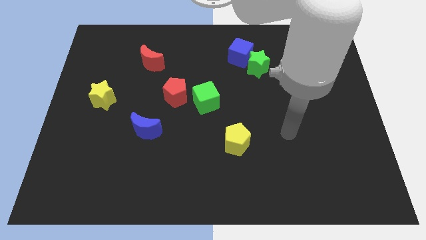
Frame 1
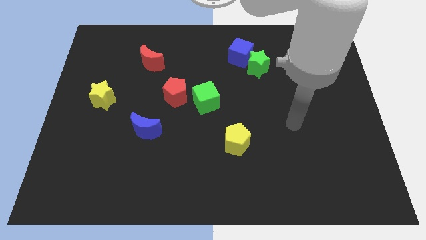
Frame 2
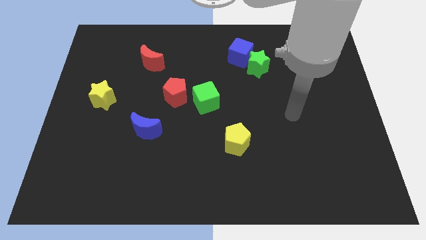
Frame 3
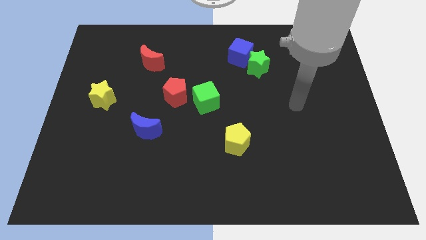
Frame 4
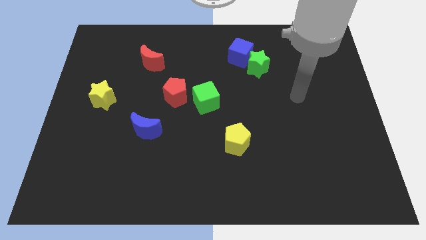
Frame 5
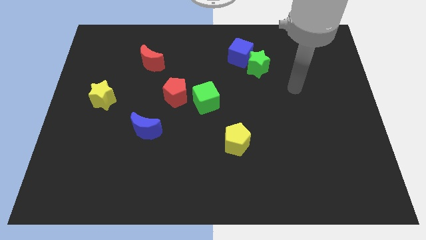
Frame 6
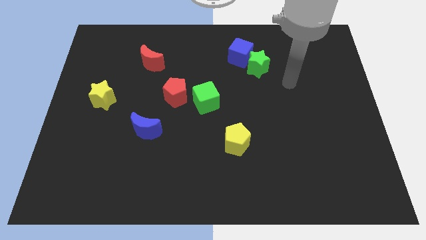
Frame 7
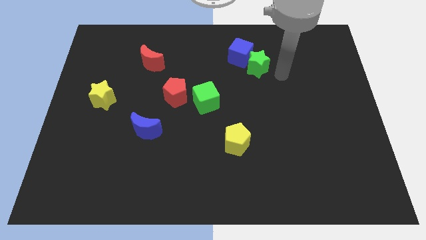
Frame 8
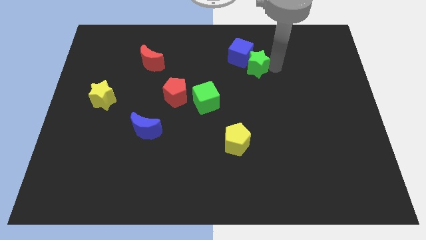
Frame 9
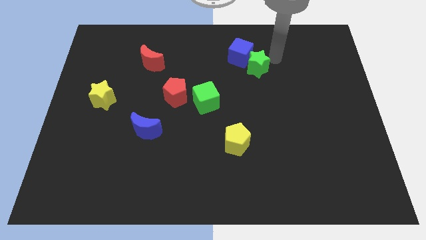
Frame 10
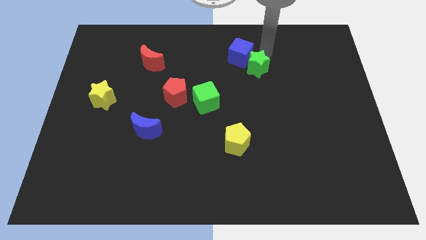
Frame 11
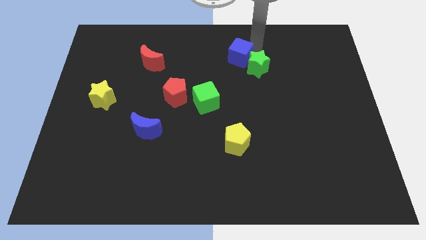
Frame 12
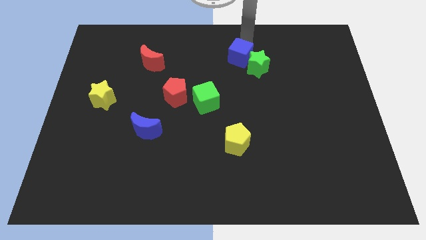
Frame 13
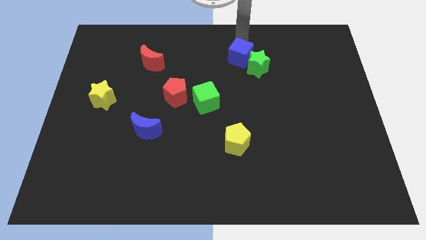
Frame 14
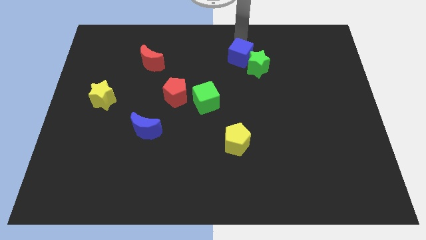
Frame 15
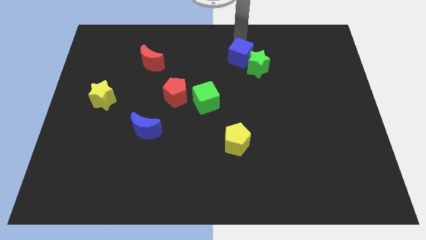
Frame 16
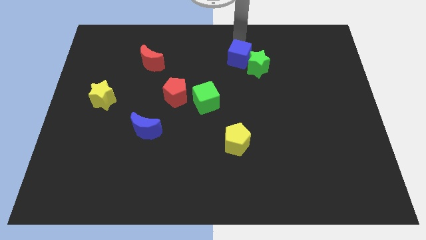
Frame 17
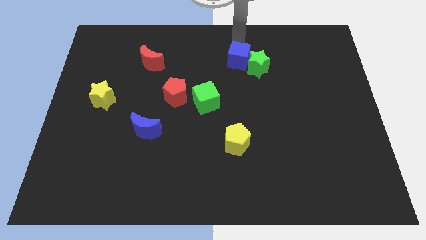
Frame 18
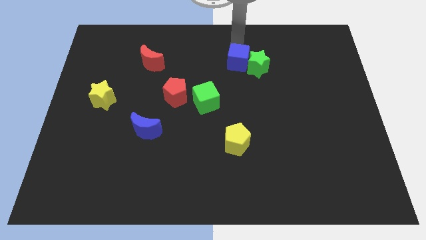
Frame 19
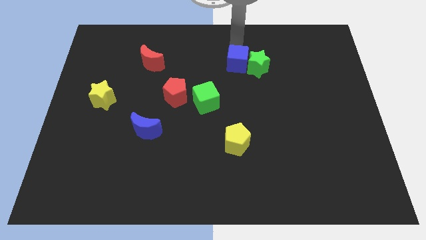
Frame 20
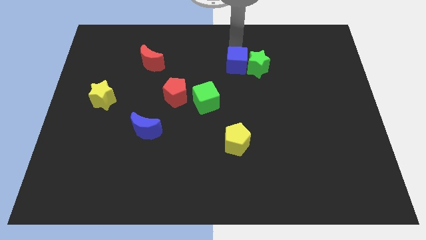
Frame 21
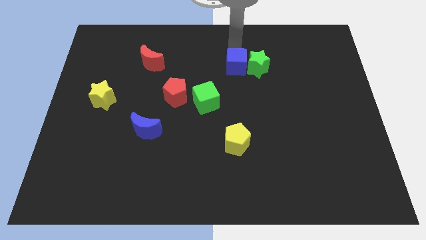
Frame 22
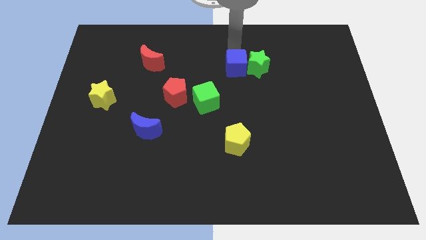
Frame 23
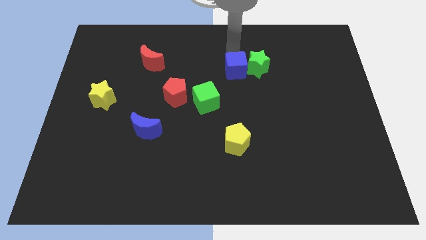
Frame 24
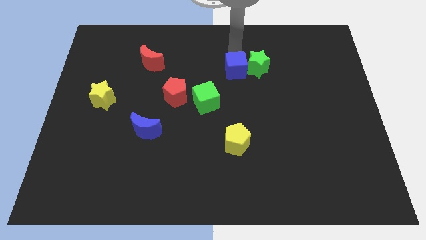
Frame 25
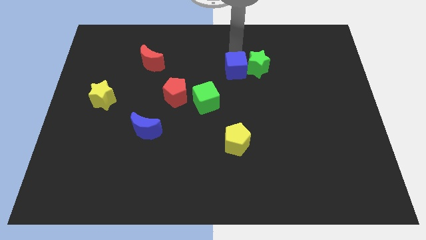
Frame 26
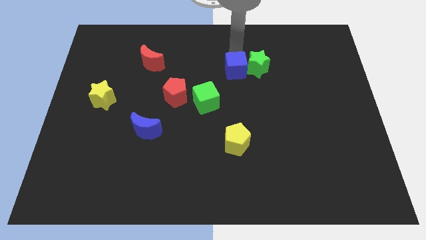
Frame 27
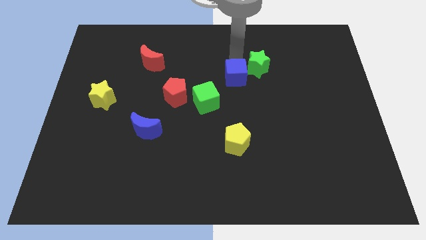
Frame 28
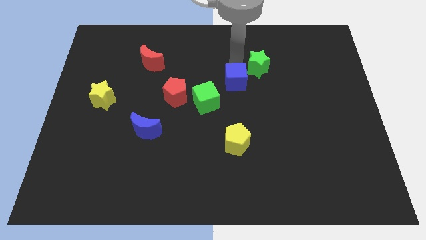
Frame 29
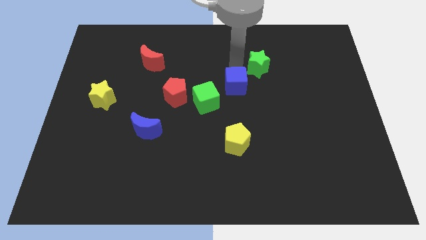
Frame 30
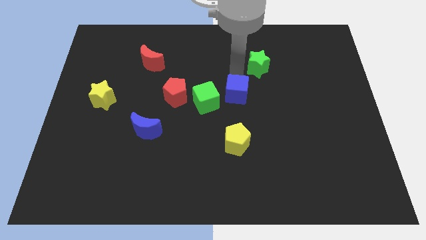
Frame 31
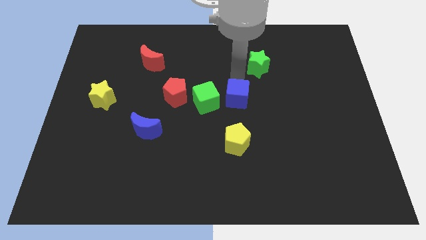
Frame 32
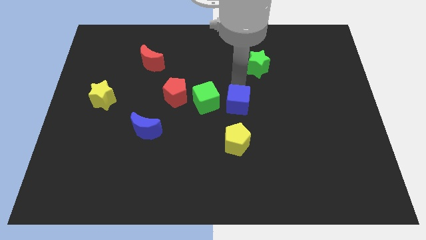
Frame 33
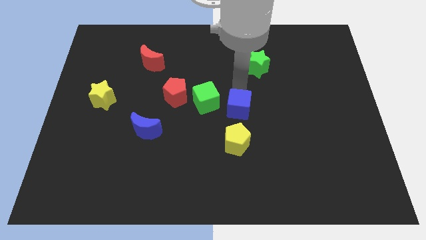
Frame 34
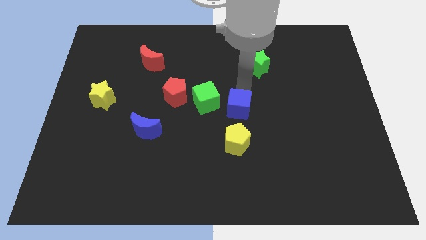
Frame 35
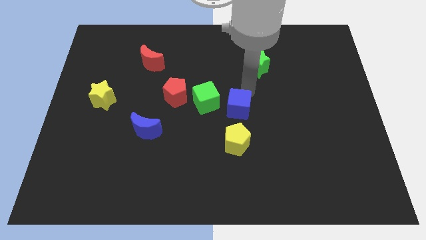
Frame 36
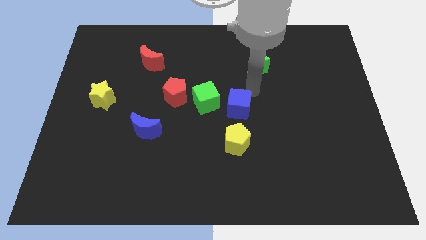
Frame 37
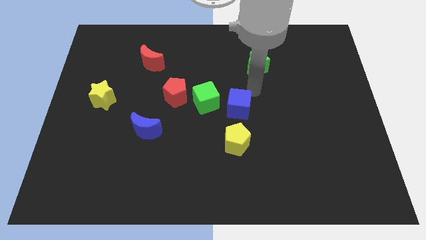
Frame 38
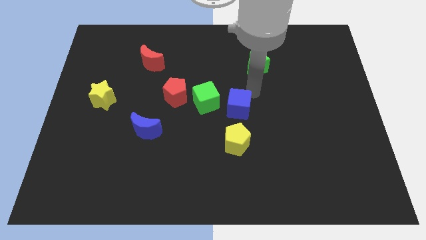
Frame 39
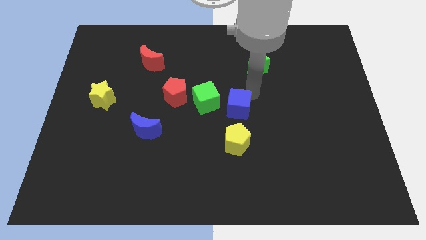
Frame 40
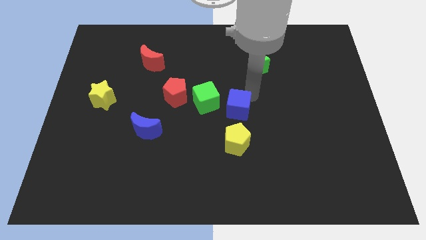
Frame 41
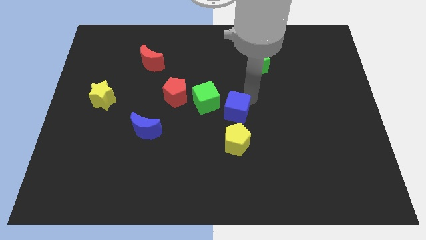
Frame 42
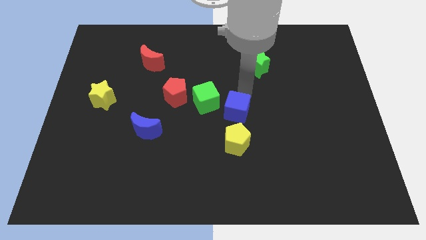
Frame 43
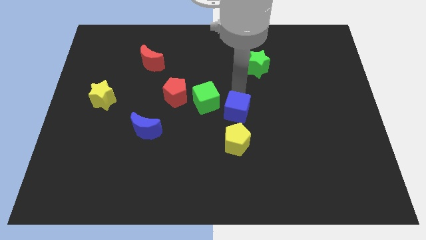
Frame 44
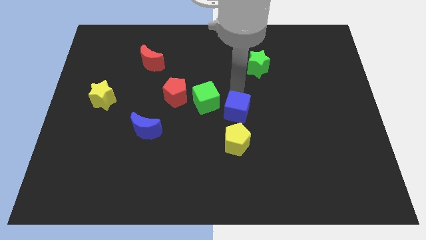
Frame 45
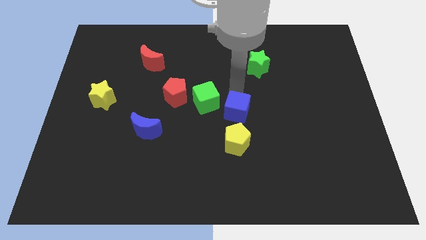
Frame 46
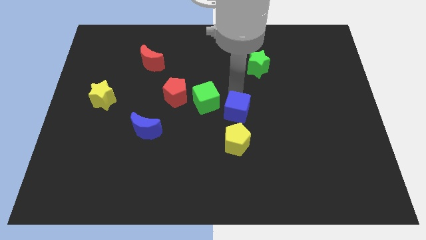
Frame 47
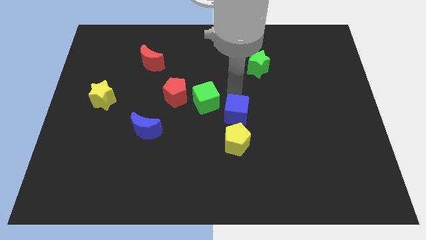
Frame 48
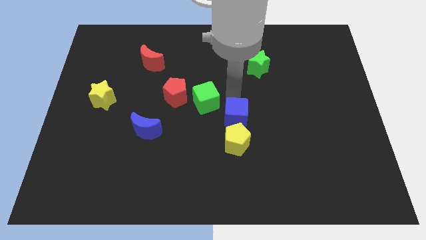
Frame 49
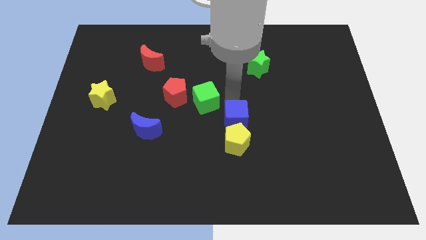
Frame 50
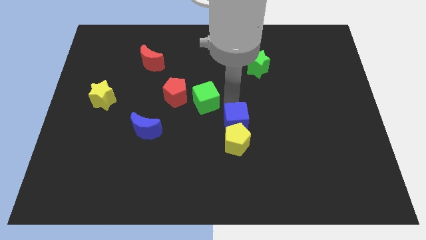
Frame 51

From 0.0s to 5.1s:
move the blue cube next to the yellow pentagon

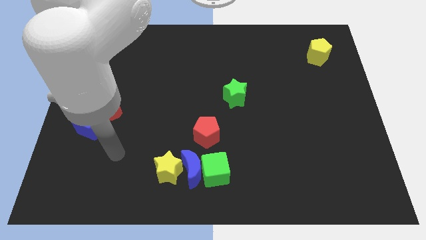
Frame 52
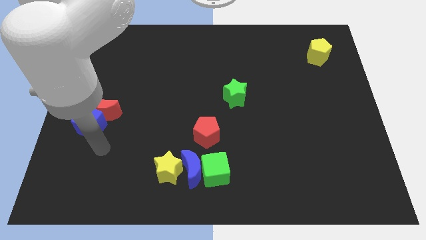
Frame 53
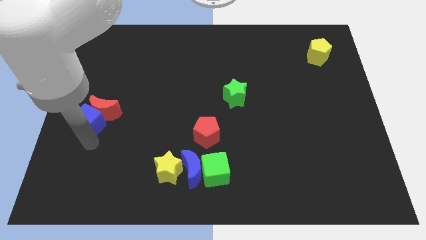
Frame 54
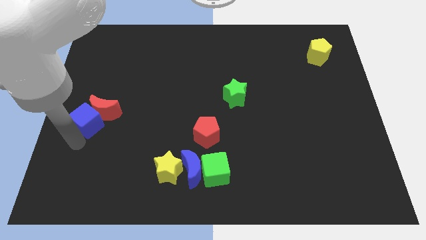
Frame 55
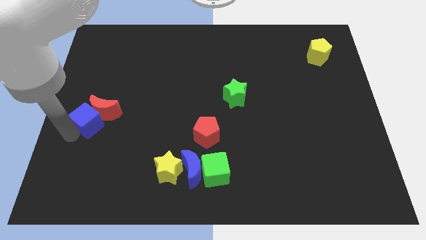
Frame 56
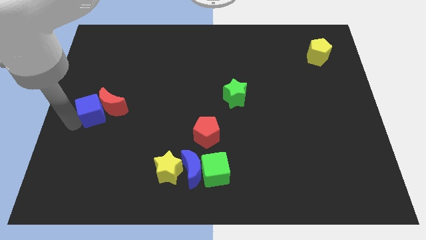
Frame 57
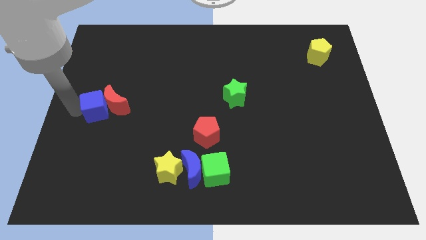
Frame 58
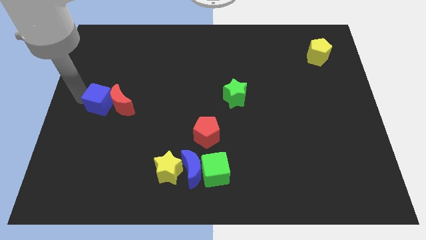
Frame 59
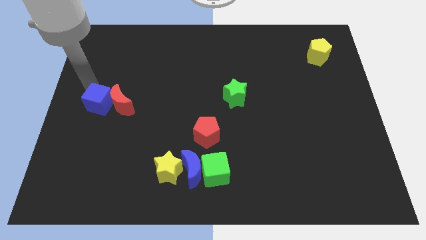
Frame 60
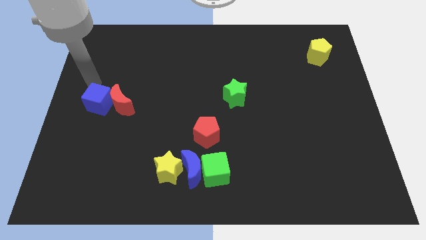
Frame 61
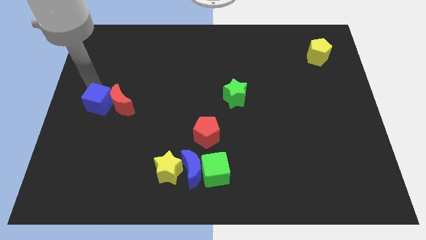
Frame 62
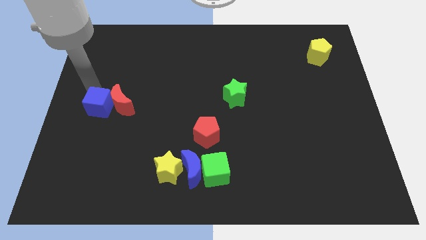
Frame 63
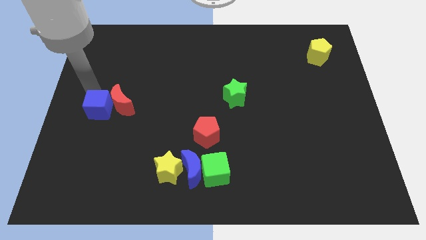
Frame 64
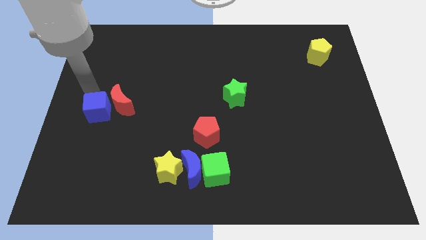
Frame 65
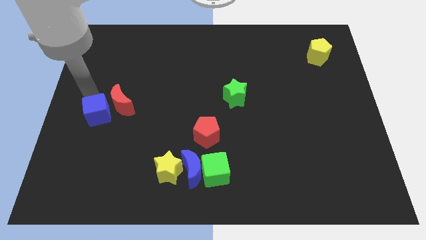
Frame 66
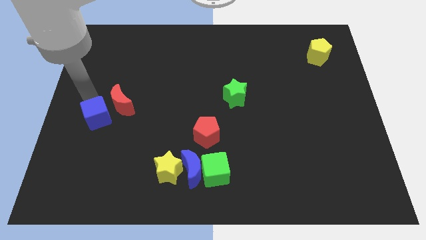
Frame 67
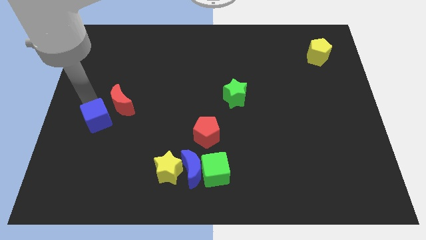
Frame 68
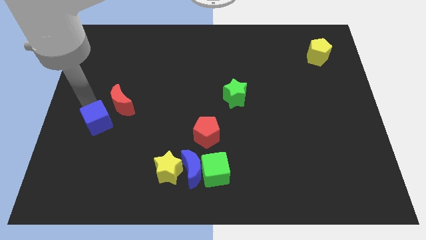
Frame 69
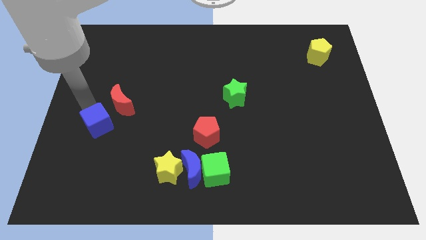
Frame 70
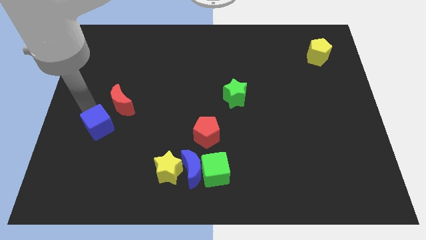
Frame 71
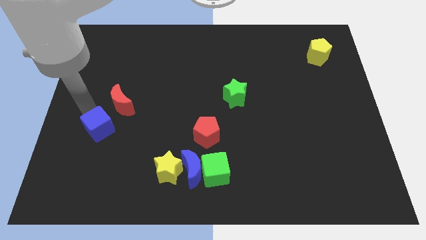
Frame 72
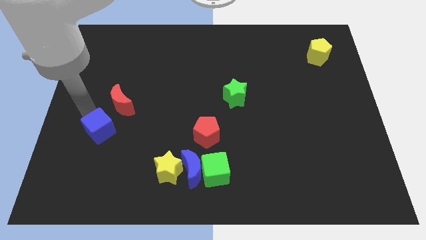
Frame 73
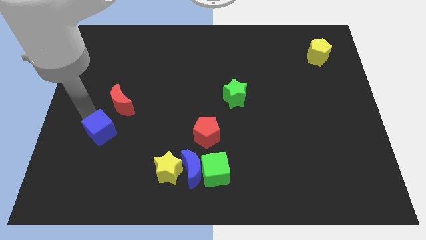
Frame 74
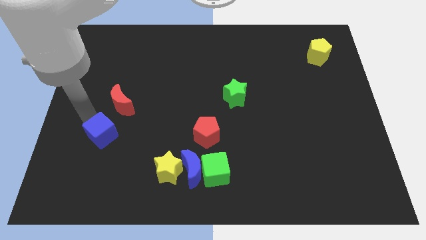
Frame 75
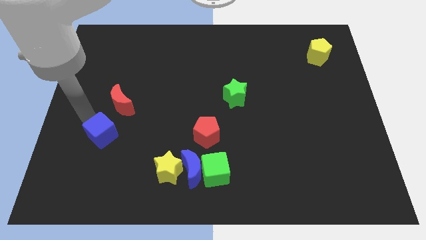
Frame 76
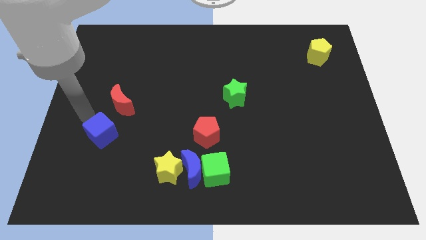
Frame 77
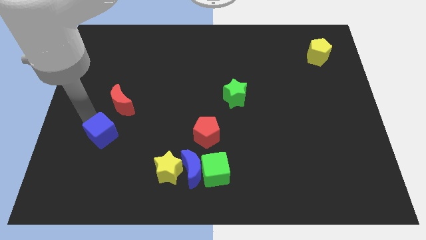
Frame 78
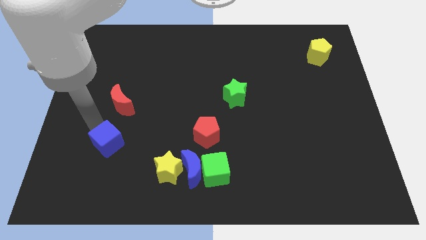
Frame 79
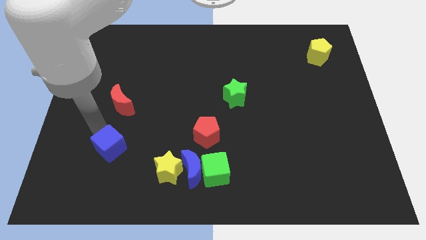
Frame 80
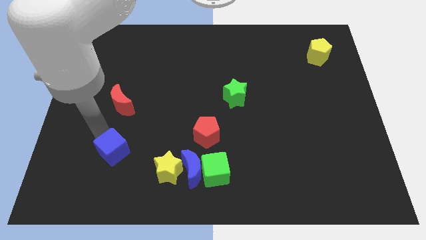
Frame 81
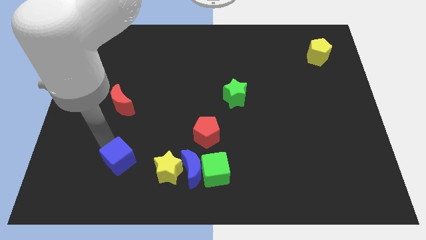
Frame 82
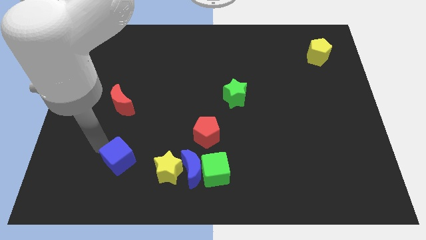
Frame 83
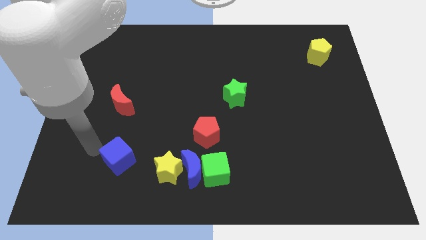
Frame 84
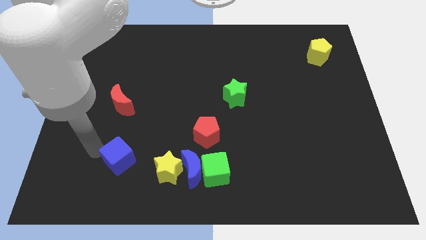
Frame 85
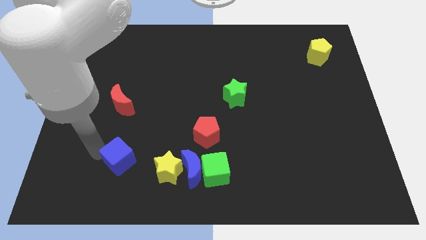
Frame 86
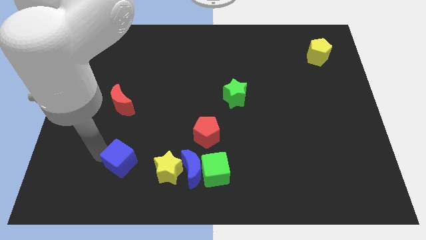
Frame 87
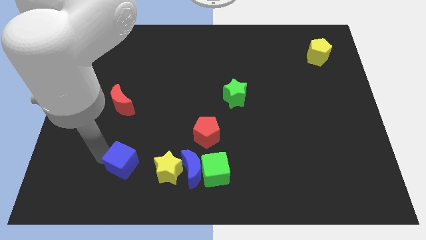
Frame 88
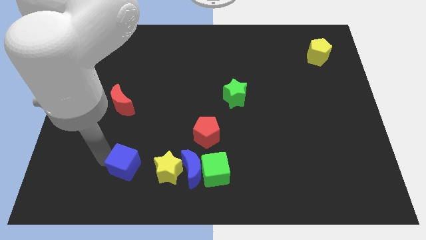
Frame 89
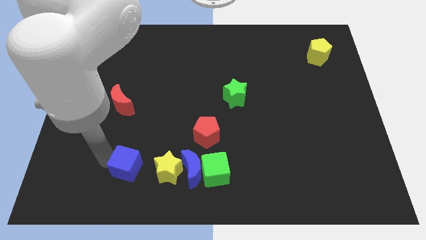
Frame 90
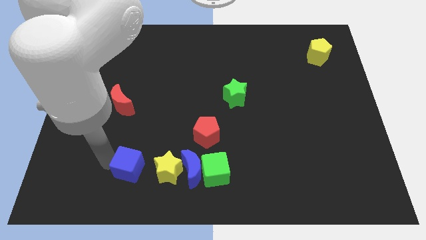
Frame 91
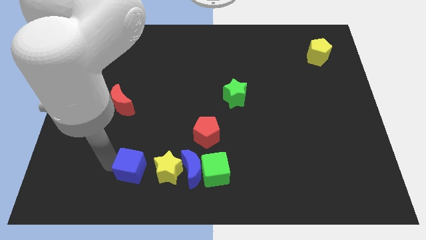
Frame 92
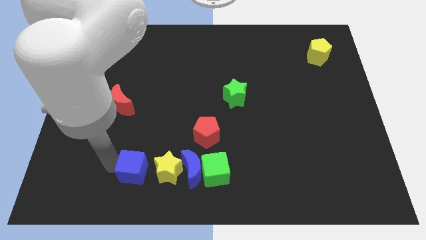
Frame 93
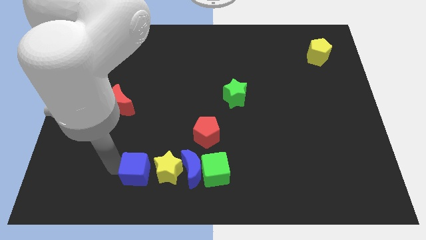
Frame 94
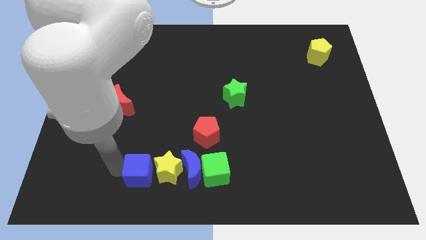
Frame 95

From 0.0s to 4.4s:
put the blue cube towards the yellow star
